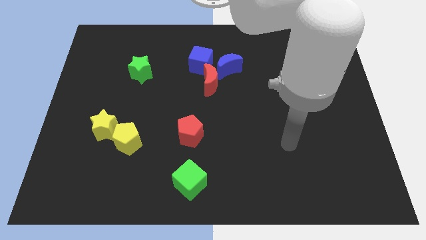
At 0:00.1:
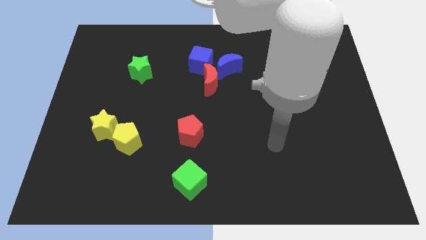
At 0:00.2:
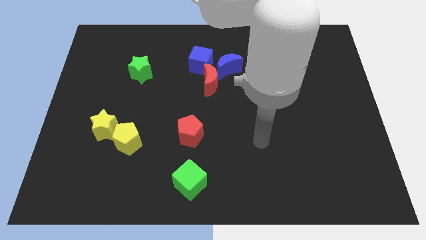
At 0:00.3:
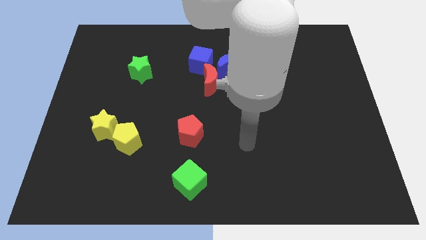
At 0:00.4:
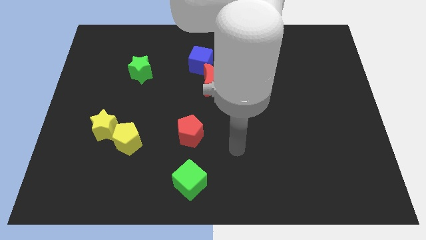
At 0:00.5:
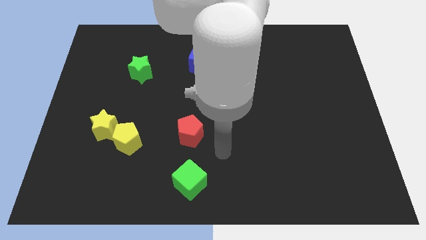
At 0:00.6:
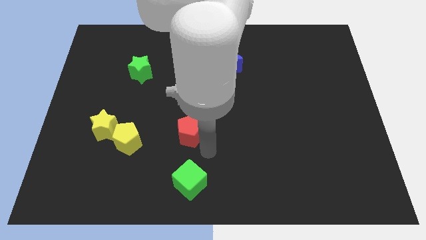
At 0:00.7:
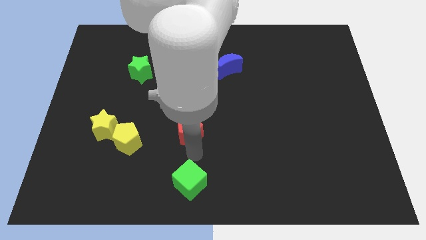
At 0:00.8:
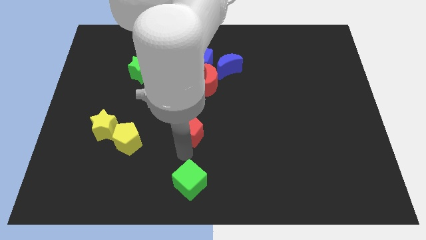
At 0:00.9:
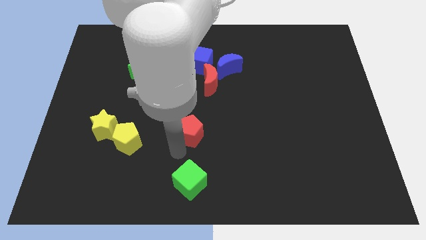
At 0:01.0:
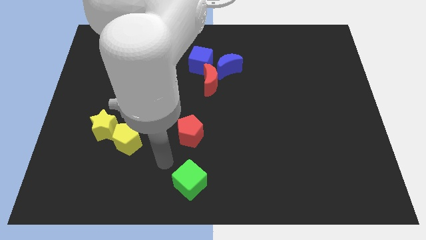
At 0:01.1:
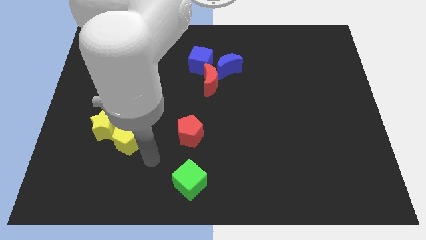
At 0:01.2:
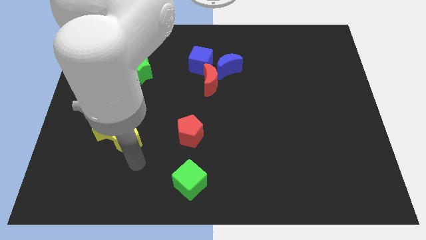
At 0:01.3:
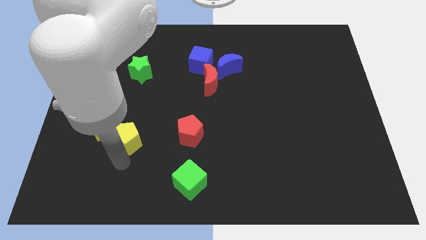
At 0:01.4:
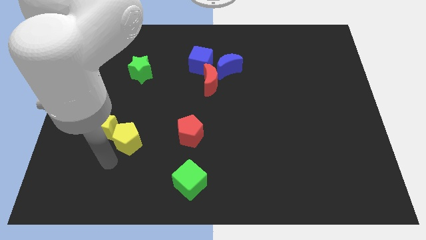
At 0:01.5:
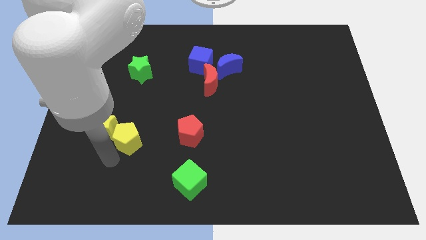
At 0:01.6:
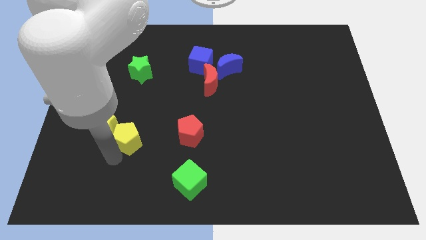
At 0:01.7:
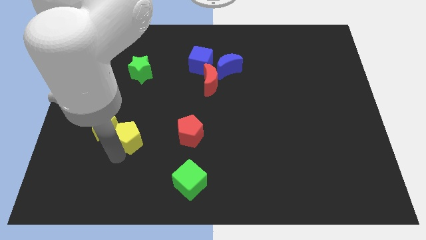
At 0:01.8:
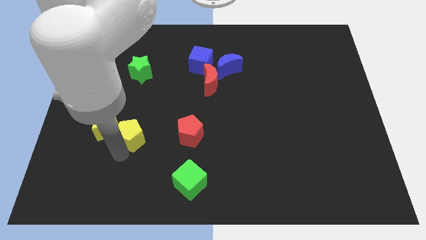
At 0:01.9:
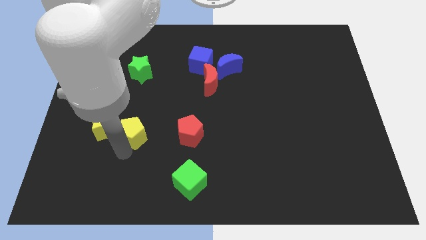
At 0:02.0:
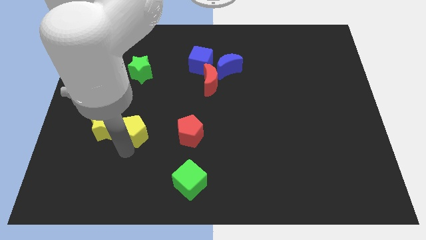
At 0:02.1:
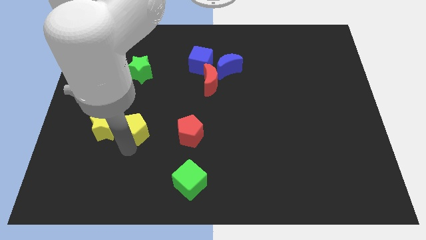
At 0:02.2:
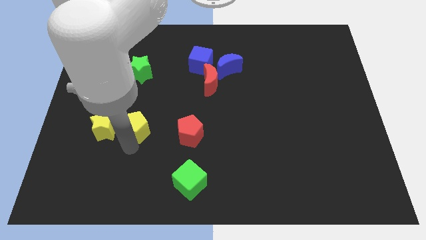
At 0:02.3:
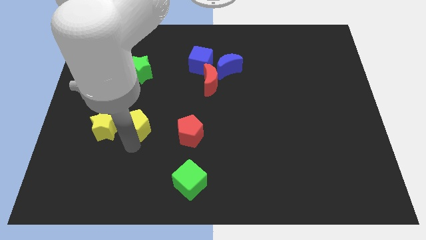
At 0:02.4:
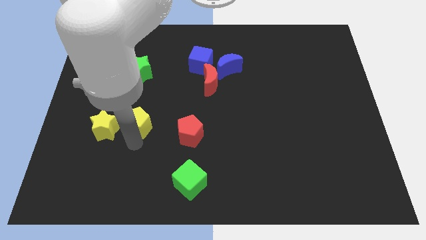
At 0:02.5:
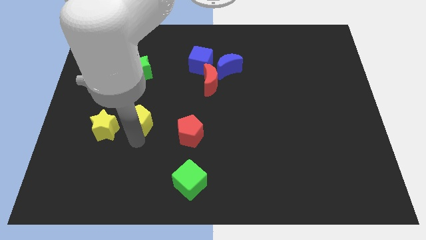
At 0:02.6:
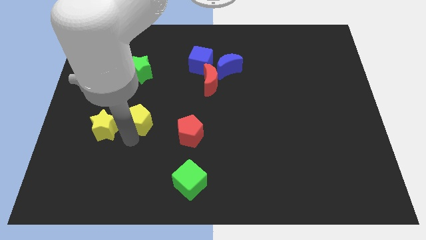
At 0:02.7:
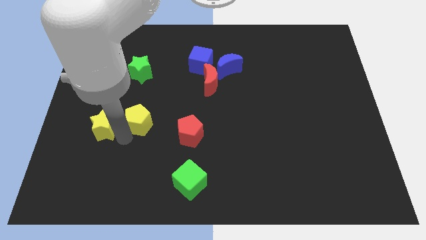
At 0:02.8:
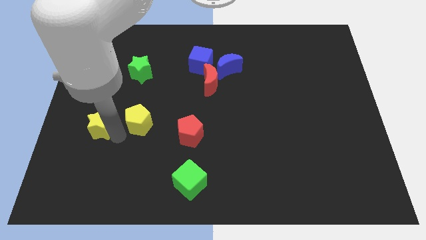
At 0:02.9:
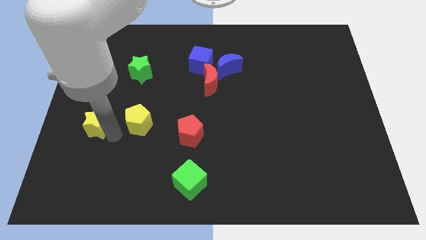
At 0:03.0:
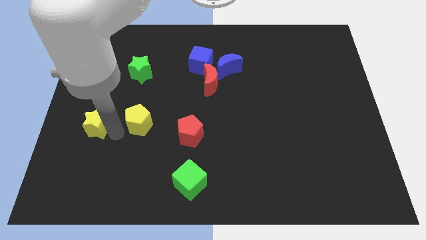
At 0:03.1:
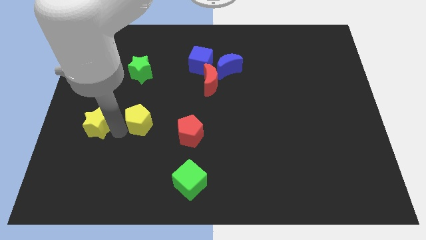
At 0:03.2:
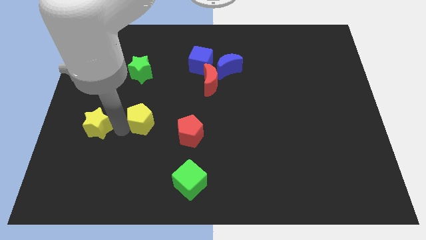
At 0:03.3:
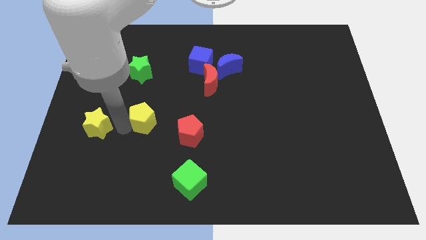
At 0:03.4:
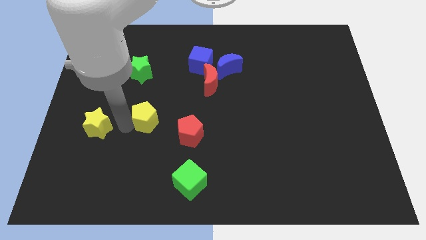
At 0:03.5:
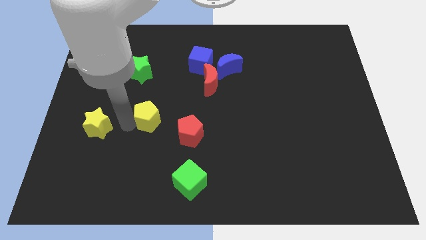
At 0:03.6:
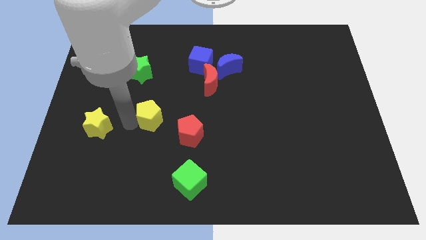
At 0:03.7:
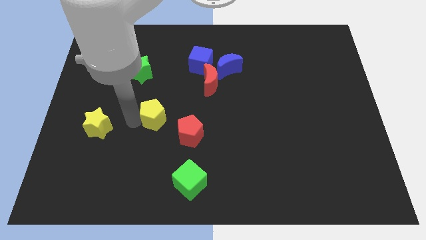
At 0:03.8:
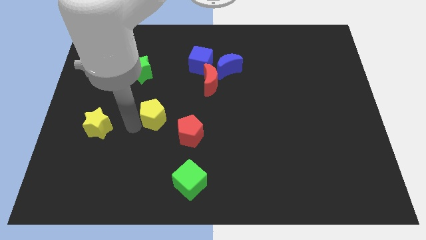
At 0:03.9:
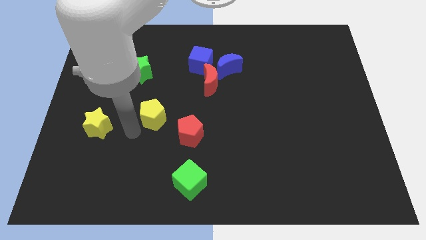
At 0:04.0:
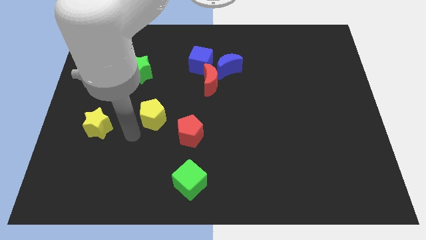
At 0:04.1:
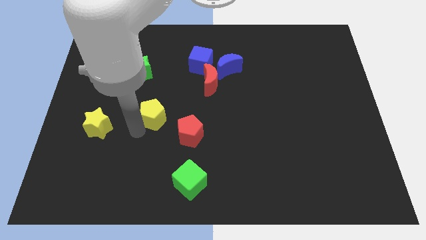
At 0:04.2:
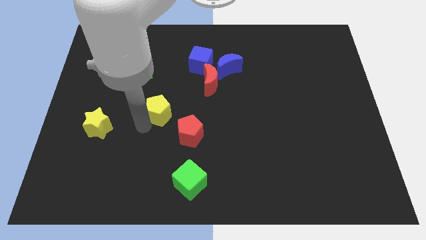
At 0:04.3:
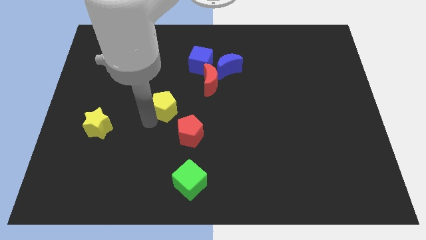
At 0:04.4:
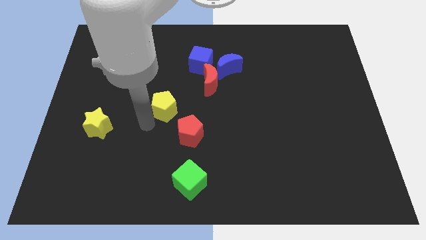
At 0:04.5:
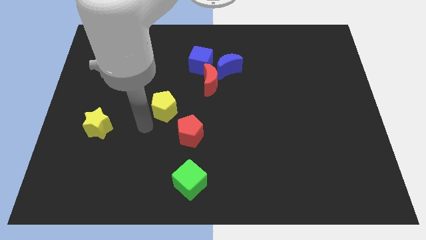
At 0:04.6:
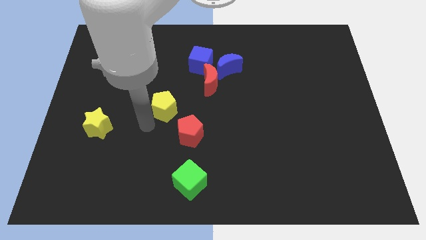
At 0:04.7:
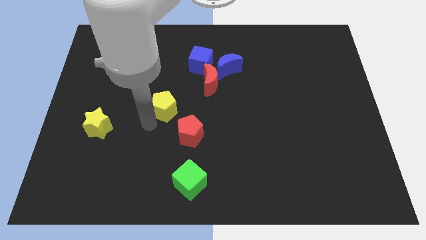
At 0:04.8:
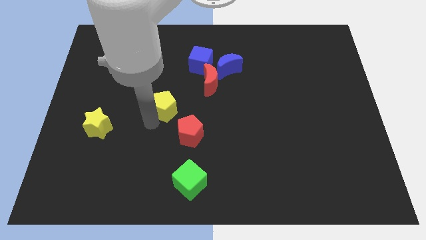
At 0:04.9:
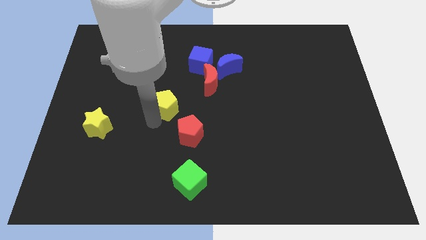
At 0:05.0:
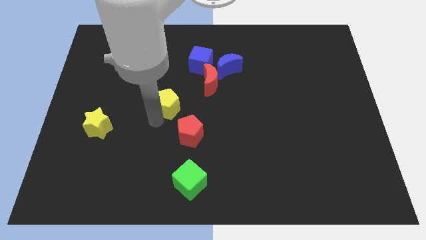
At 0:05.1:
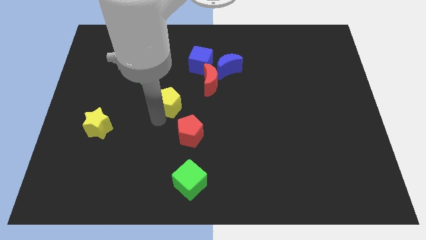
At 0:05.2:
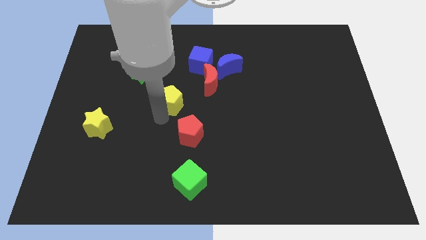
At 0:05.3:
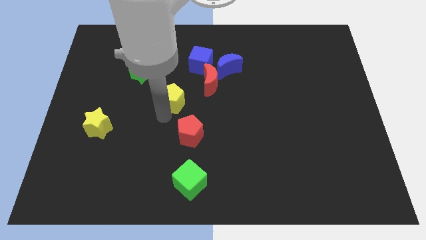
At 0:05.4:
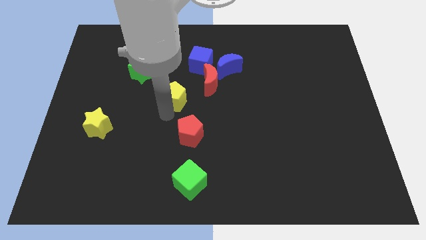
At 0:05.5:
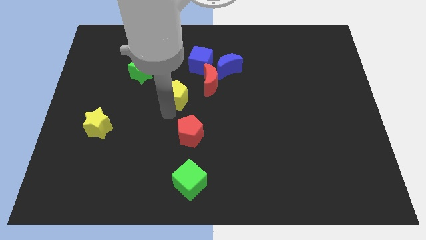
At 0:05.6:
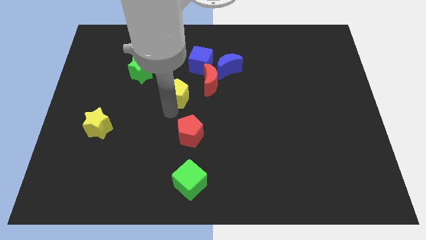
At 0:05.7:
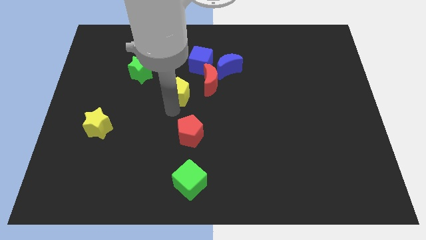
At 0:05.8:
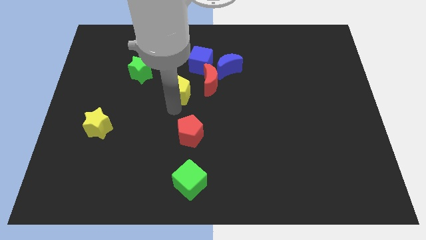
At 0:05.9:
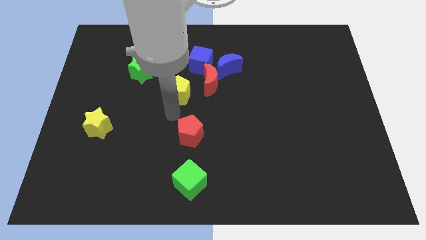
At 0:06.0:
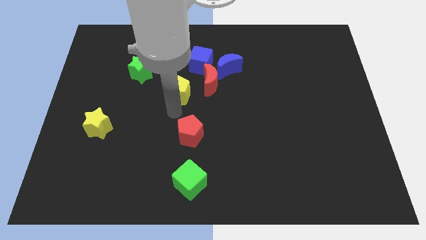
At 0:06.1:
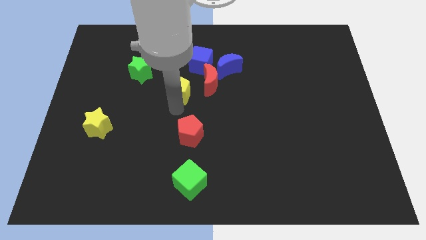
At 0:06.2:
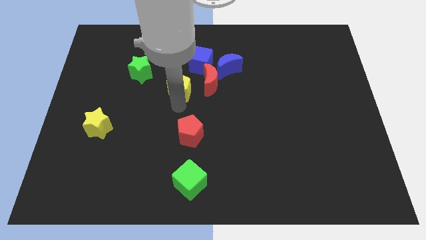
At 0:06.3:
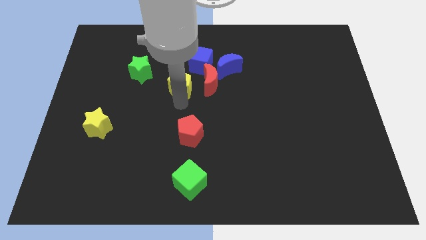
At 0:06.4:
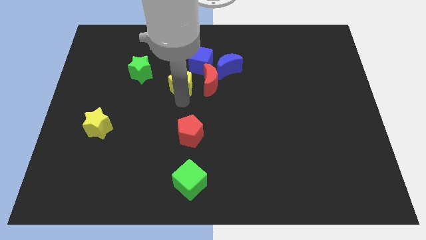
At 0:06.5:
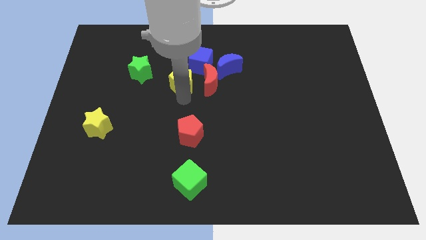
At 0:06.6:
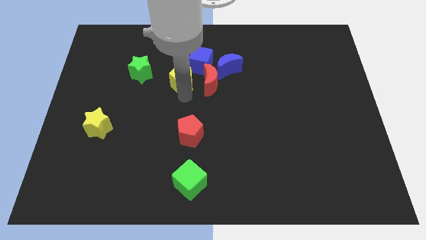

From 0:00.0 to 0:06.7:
slide the yellow pentagon just left of the blue moon

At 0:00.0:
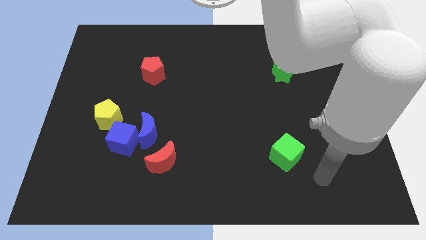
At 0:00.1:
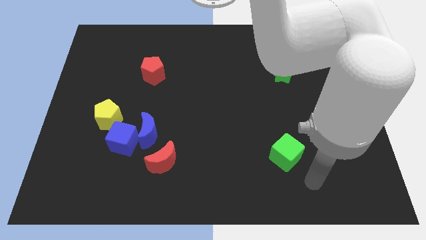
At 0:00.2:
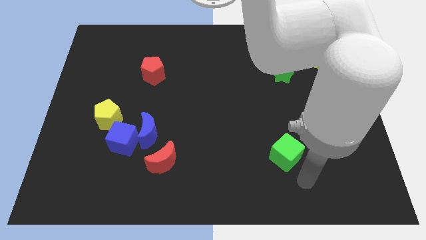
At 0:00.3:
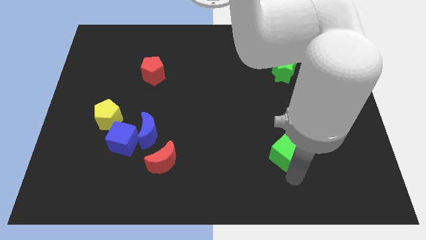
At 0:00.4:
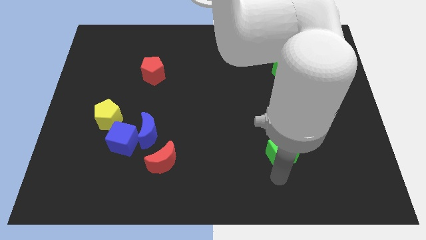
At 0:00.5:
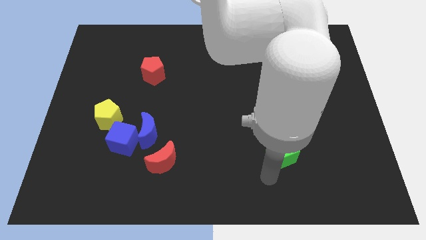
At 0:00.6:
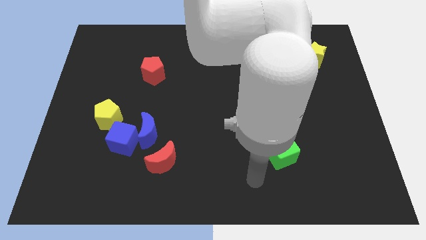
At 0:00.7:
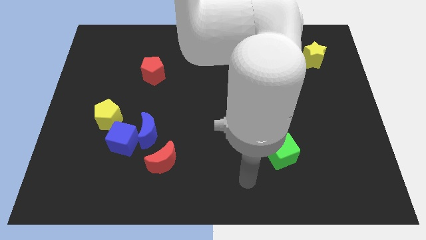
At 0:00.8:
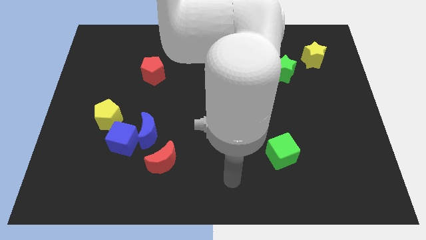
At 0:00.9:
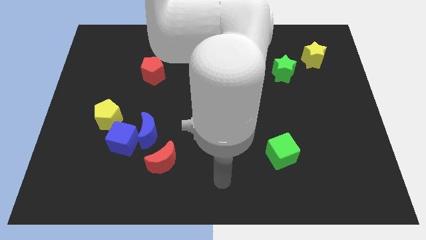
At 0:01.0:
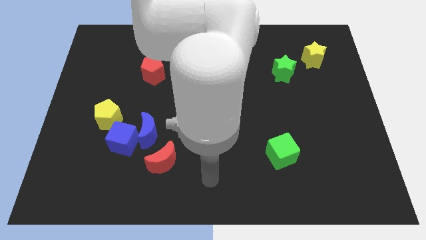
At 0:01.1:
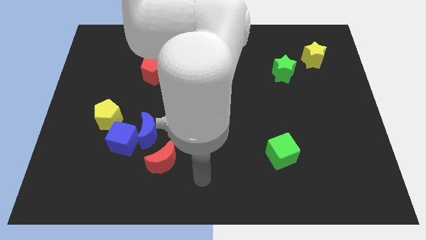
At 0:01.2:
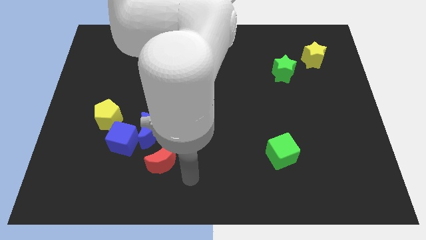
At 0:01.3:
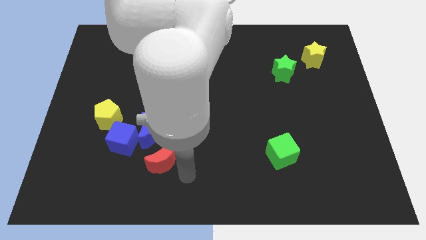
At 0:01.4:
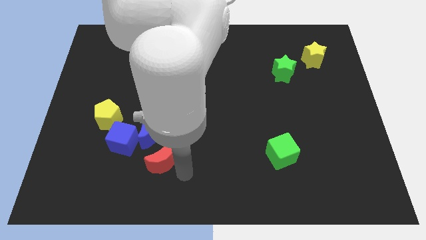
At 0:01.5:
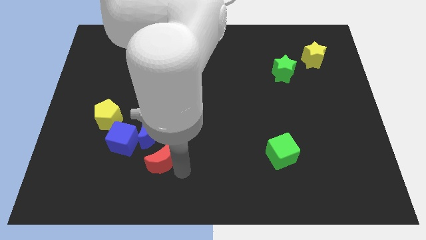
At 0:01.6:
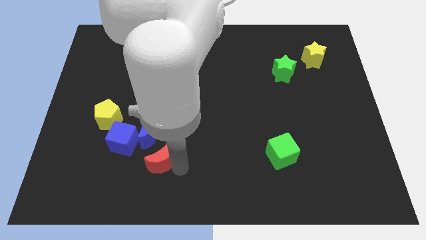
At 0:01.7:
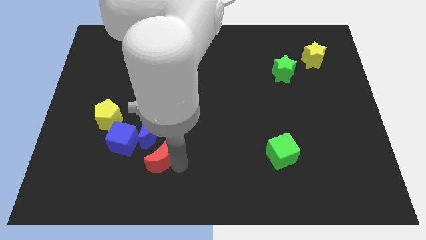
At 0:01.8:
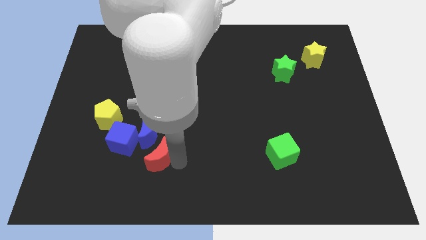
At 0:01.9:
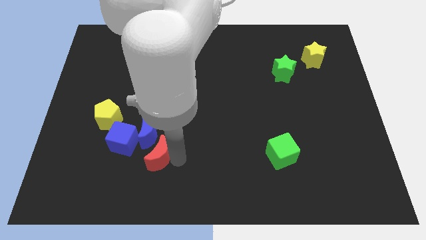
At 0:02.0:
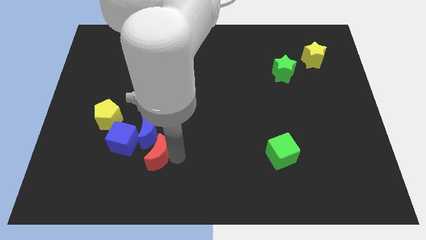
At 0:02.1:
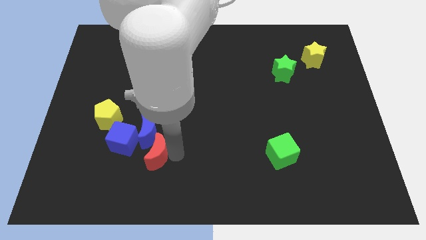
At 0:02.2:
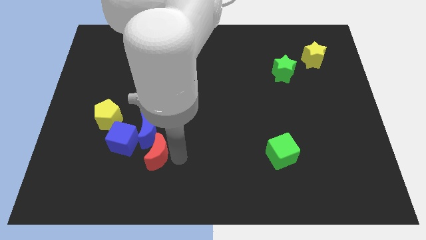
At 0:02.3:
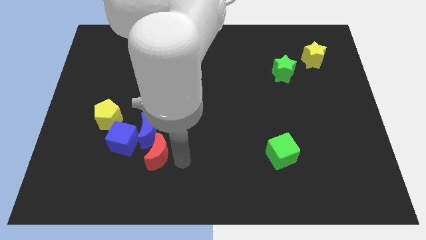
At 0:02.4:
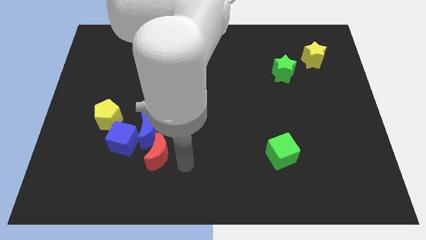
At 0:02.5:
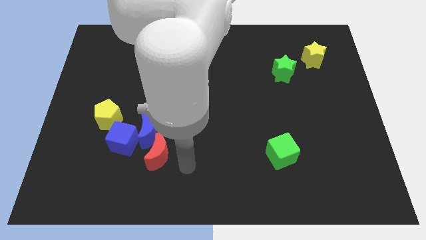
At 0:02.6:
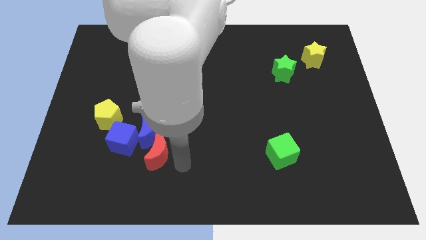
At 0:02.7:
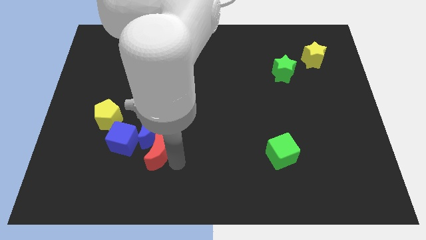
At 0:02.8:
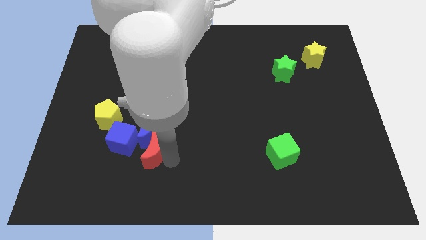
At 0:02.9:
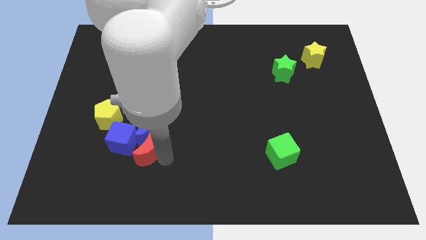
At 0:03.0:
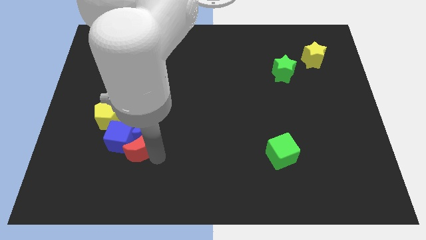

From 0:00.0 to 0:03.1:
put the red moon to the bottom right side of the yellow pentagon
